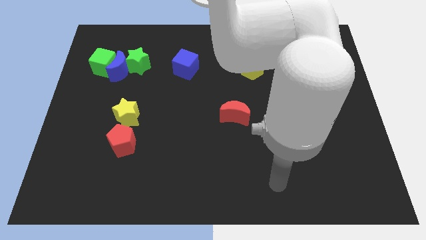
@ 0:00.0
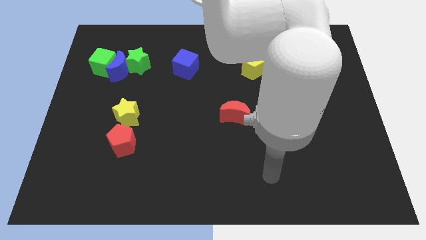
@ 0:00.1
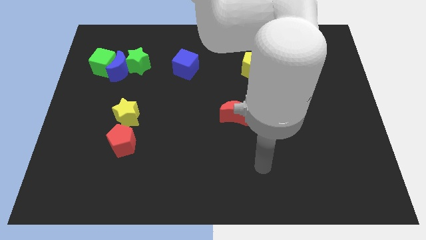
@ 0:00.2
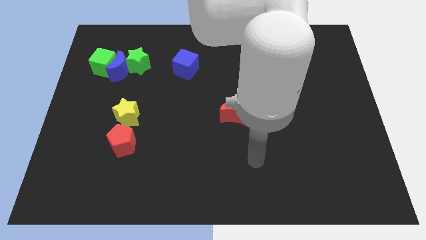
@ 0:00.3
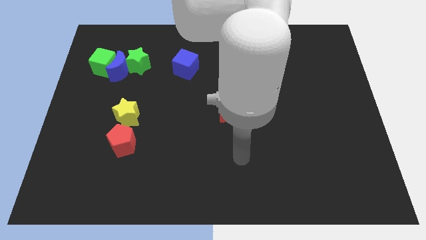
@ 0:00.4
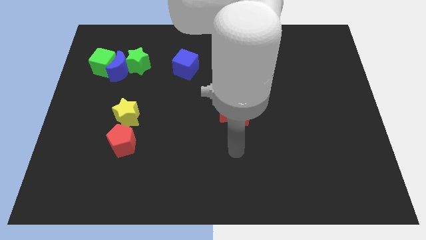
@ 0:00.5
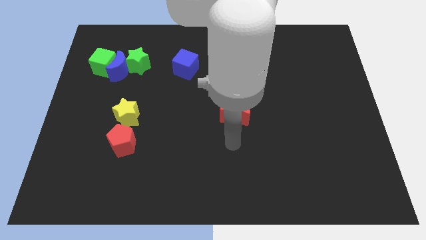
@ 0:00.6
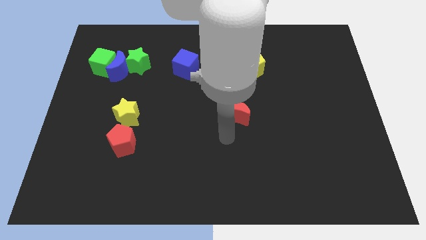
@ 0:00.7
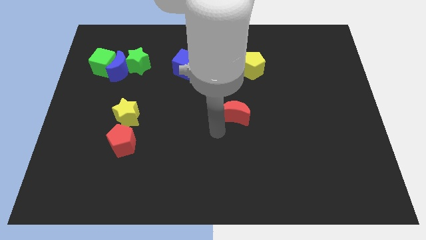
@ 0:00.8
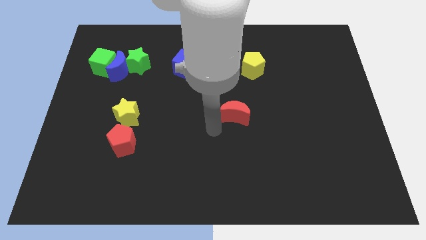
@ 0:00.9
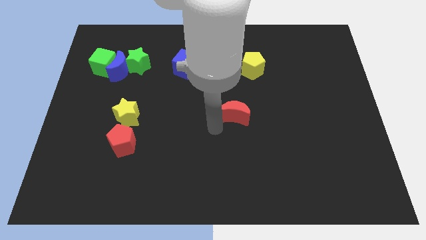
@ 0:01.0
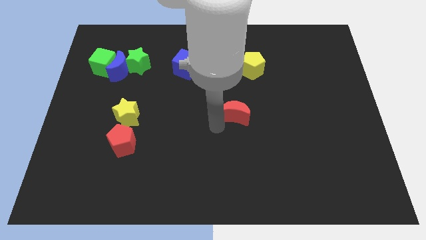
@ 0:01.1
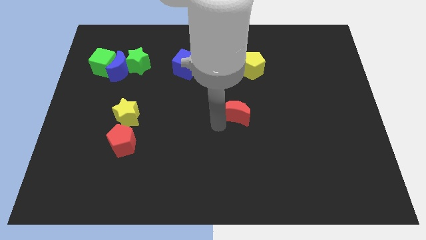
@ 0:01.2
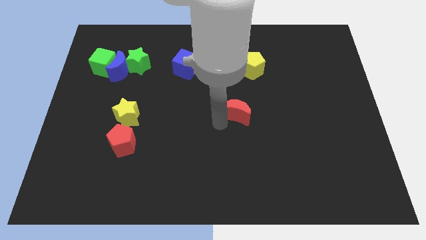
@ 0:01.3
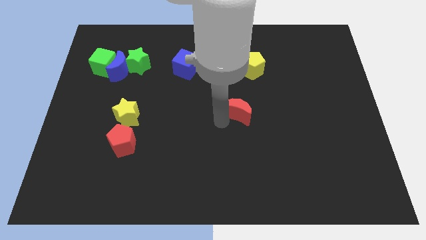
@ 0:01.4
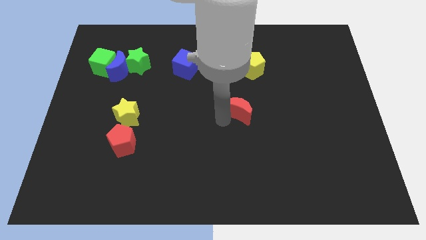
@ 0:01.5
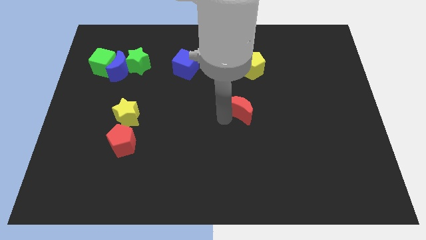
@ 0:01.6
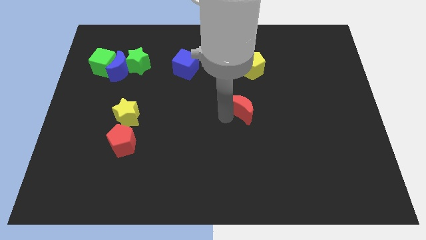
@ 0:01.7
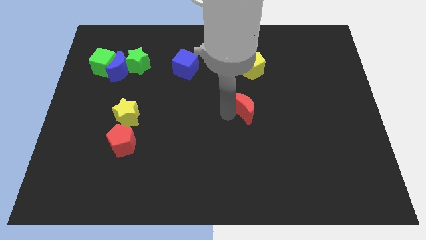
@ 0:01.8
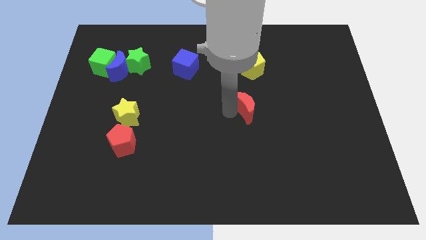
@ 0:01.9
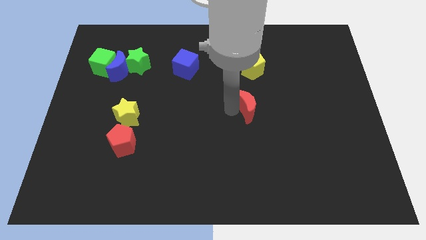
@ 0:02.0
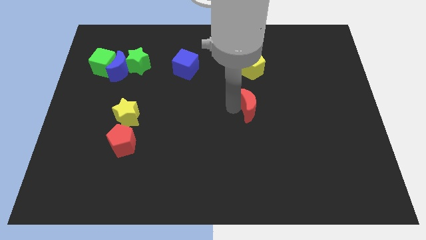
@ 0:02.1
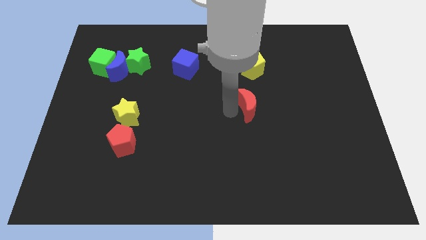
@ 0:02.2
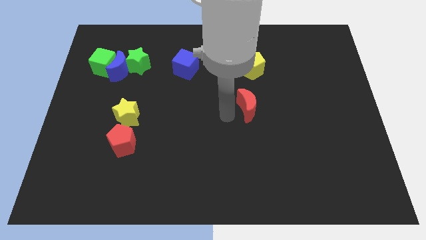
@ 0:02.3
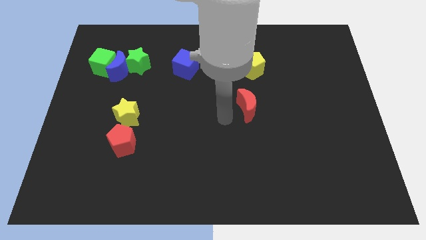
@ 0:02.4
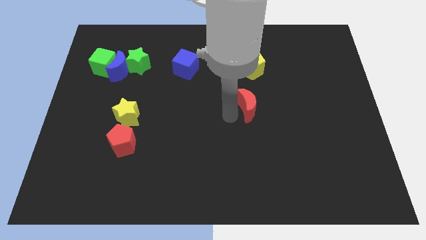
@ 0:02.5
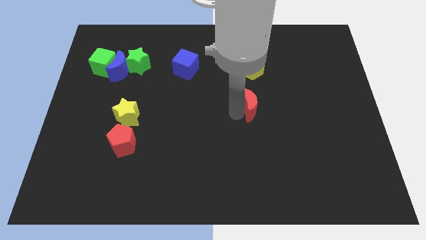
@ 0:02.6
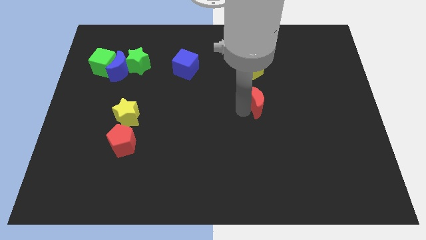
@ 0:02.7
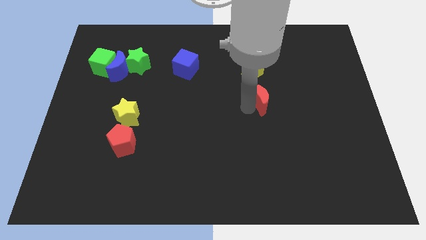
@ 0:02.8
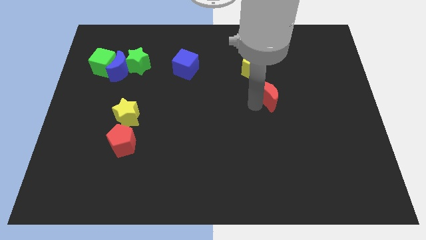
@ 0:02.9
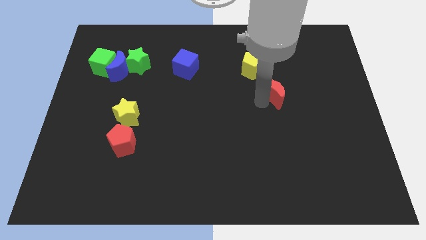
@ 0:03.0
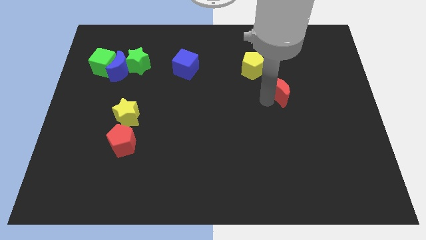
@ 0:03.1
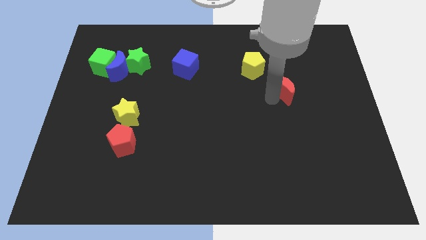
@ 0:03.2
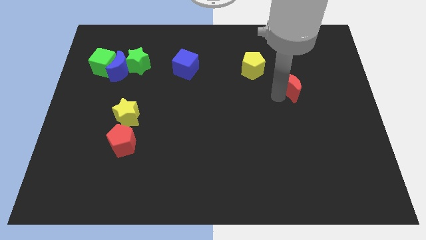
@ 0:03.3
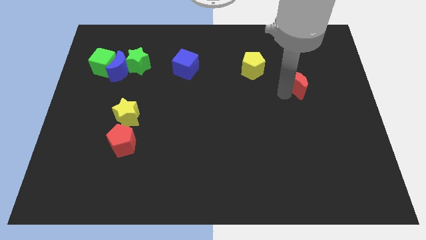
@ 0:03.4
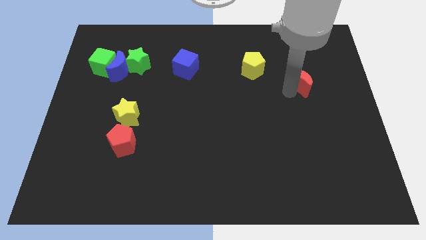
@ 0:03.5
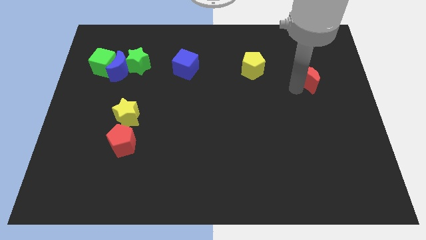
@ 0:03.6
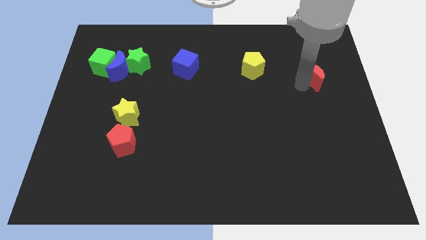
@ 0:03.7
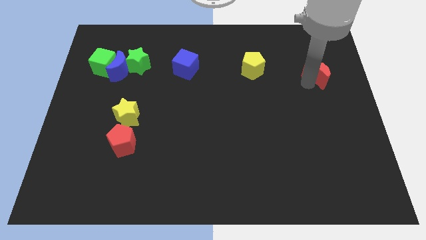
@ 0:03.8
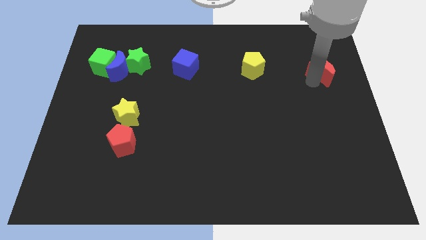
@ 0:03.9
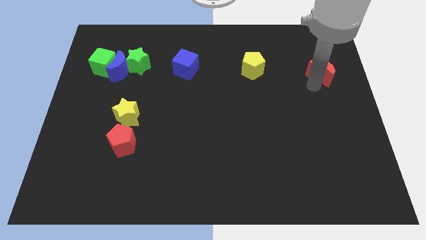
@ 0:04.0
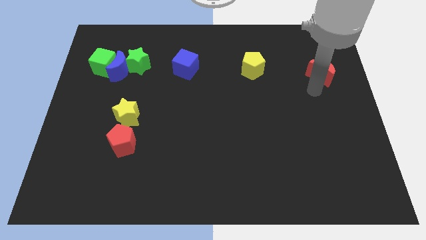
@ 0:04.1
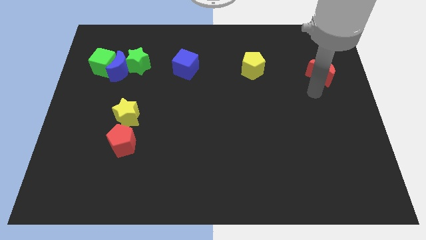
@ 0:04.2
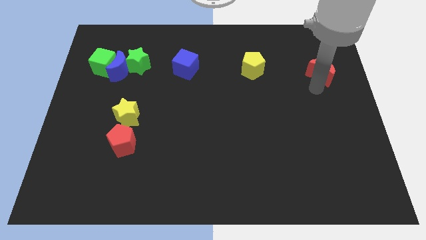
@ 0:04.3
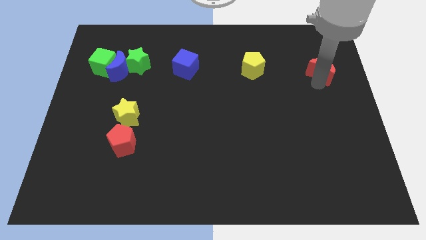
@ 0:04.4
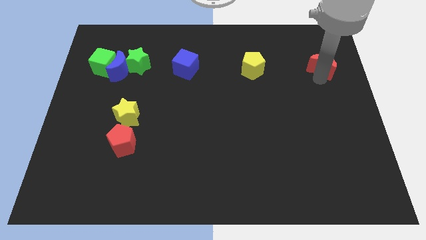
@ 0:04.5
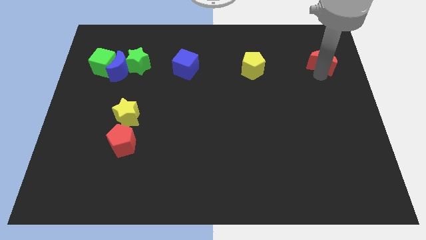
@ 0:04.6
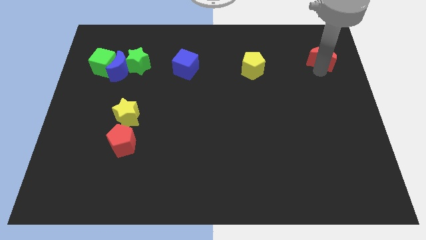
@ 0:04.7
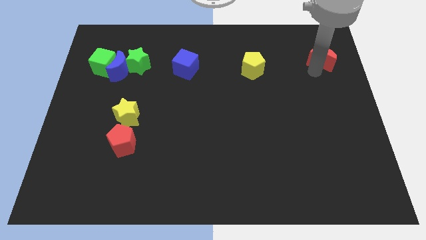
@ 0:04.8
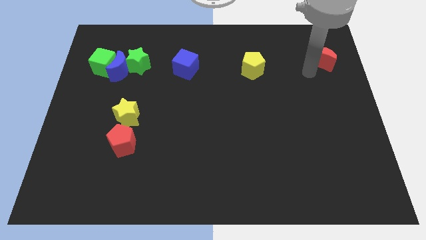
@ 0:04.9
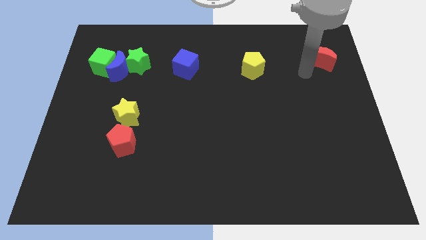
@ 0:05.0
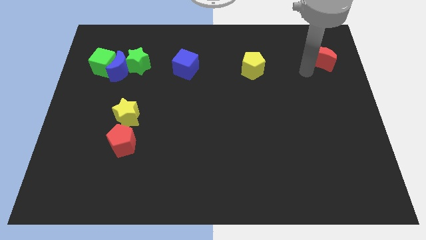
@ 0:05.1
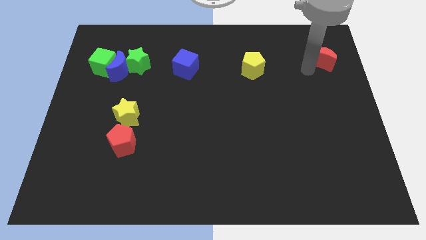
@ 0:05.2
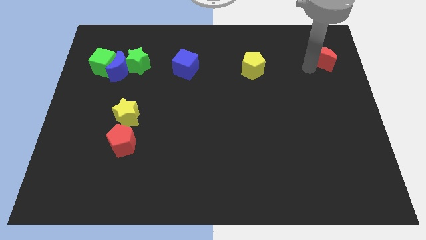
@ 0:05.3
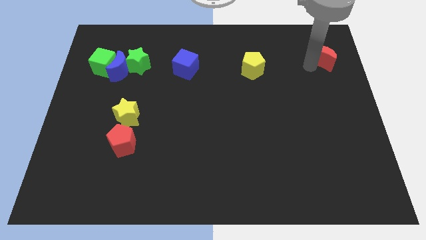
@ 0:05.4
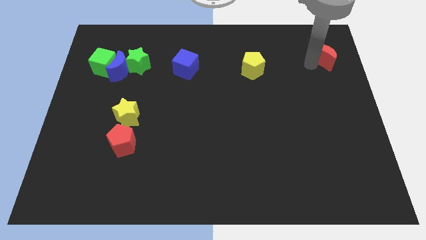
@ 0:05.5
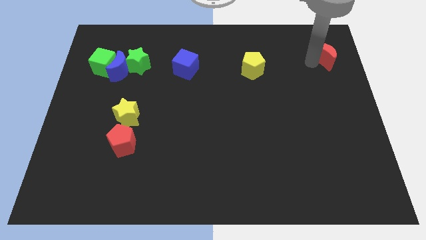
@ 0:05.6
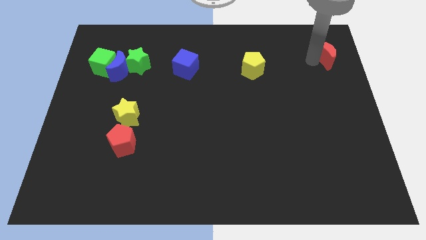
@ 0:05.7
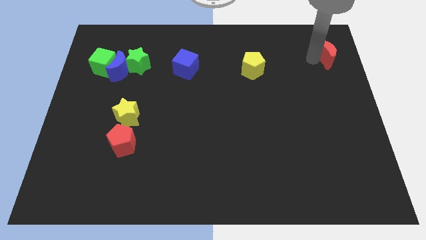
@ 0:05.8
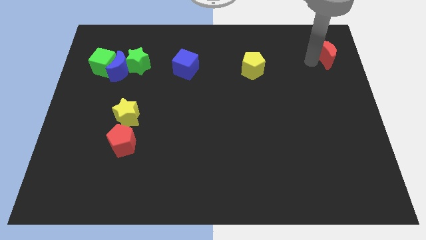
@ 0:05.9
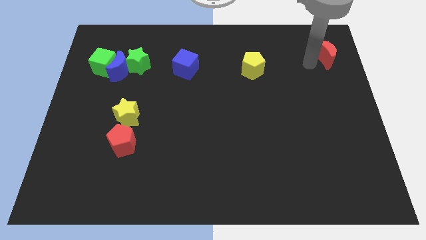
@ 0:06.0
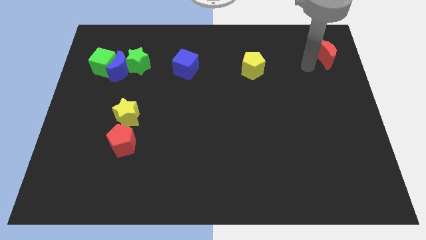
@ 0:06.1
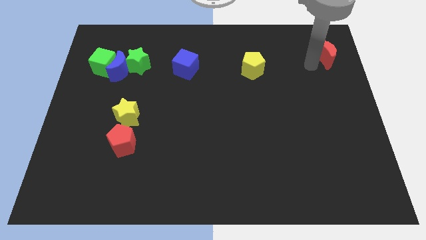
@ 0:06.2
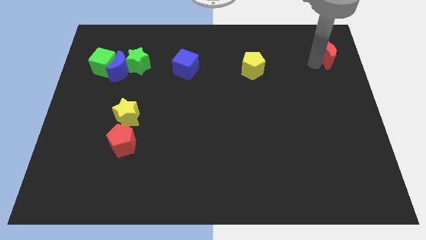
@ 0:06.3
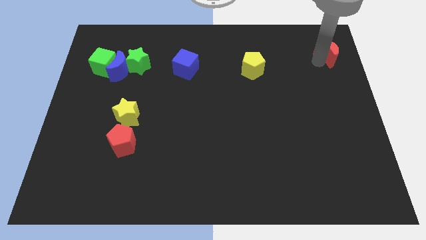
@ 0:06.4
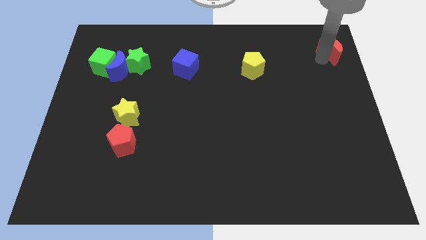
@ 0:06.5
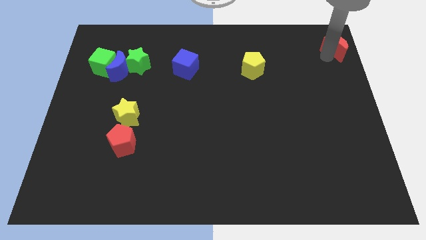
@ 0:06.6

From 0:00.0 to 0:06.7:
push the red moon to the top right

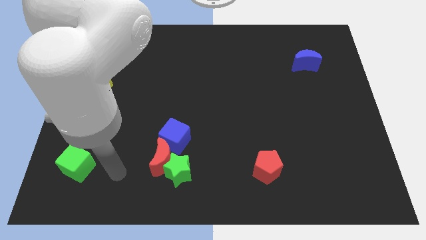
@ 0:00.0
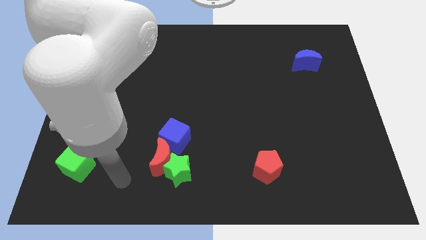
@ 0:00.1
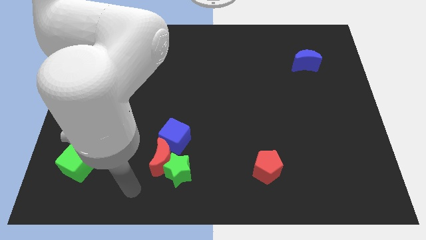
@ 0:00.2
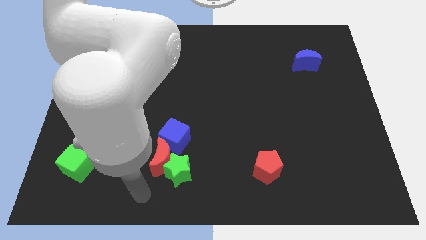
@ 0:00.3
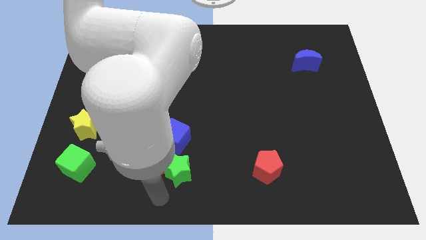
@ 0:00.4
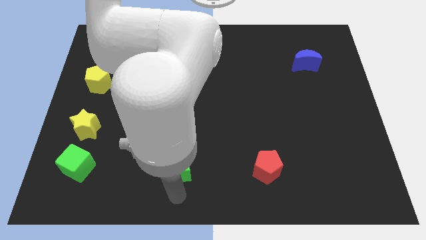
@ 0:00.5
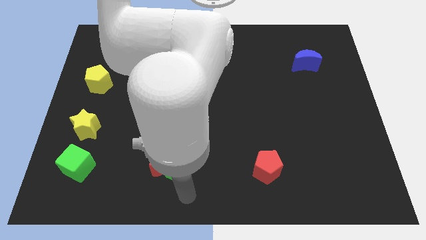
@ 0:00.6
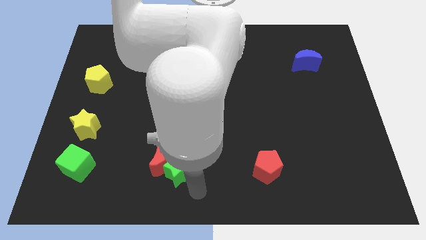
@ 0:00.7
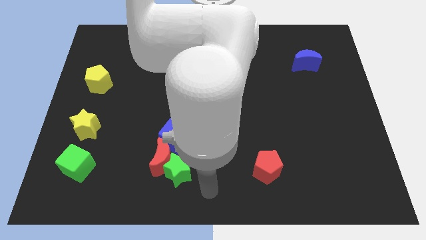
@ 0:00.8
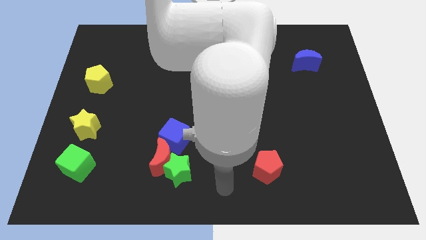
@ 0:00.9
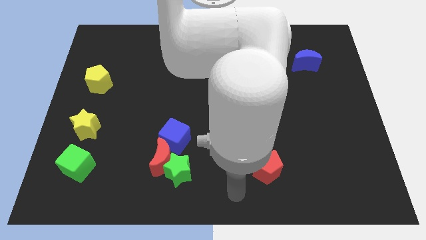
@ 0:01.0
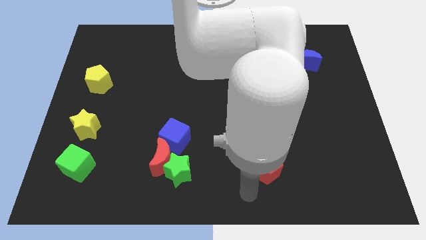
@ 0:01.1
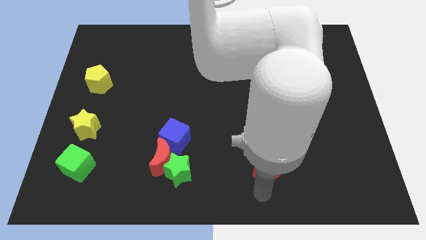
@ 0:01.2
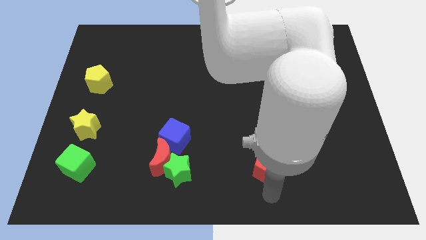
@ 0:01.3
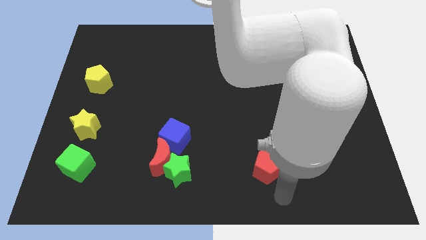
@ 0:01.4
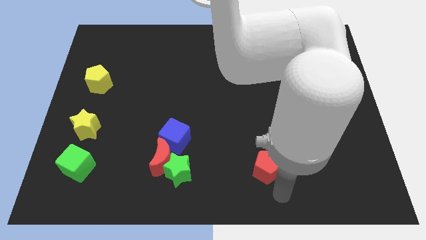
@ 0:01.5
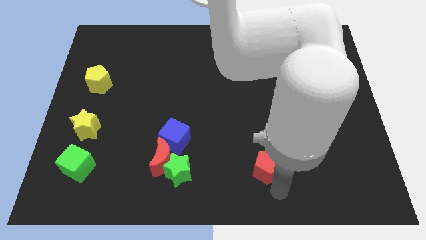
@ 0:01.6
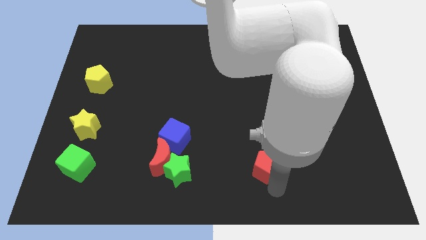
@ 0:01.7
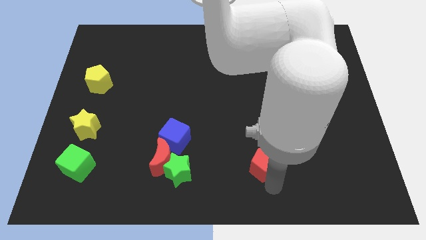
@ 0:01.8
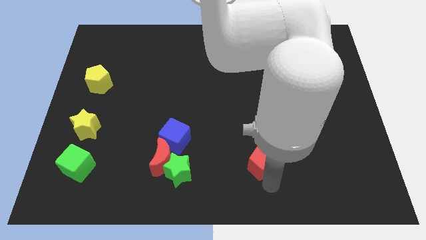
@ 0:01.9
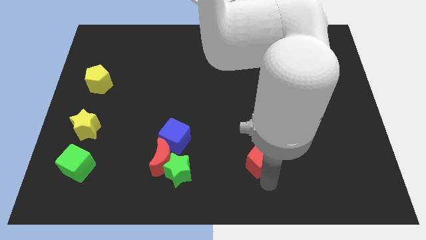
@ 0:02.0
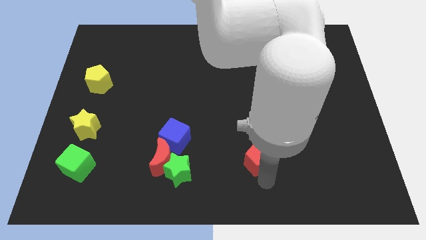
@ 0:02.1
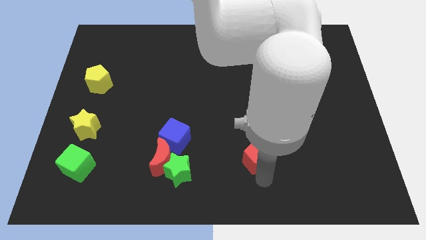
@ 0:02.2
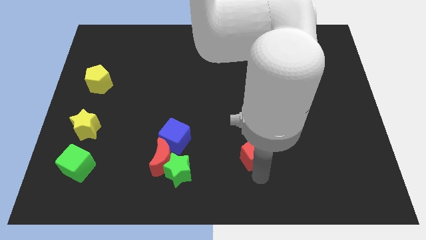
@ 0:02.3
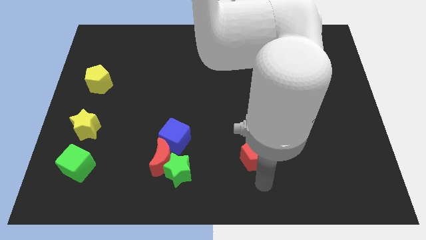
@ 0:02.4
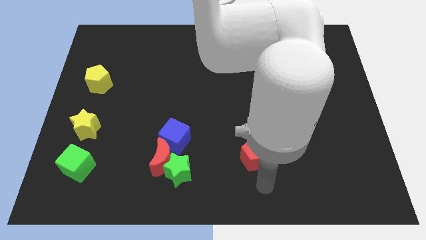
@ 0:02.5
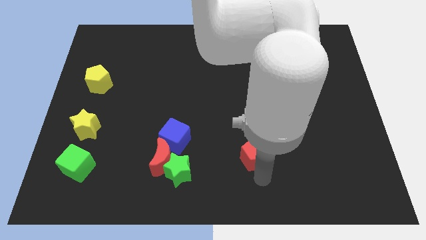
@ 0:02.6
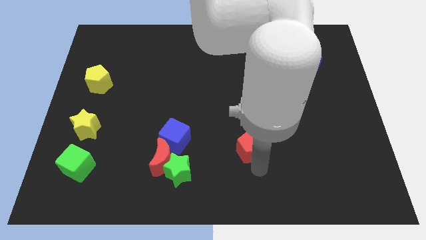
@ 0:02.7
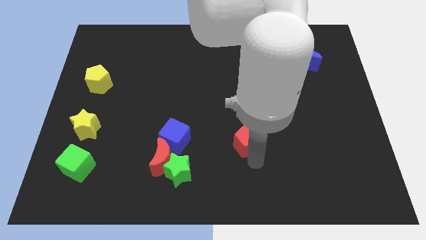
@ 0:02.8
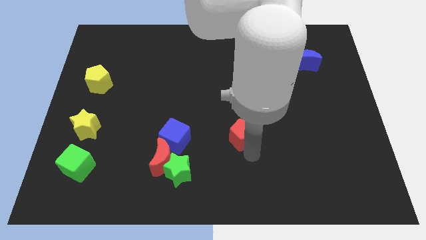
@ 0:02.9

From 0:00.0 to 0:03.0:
put the red pentagon to the center
